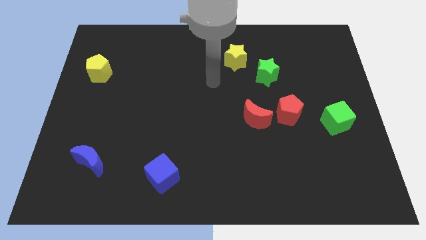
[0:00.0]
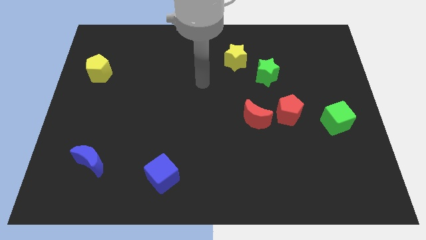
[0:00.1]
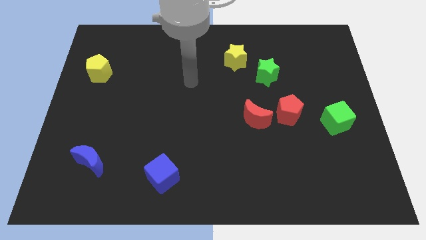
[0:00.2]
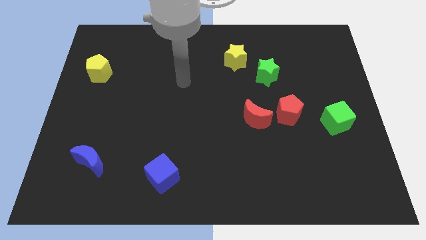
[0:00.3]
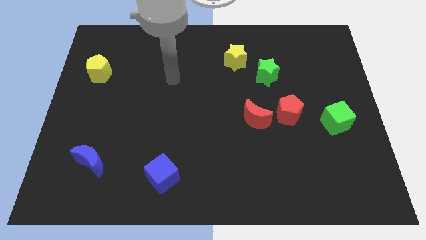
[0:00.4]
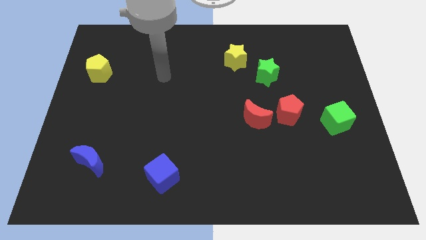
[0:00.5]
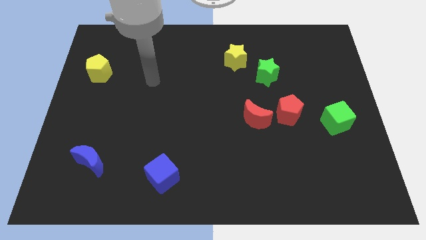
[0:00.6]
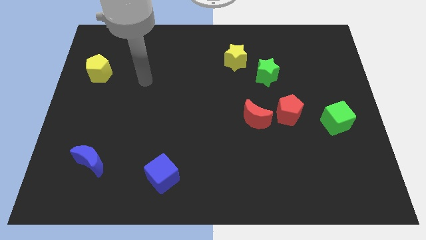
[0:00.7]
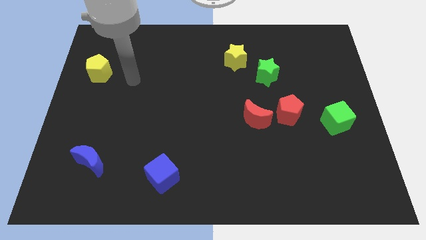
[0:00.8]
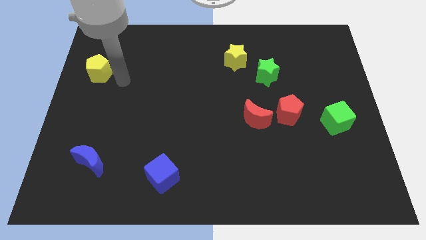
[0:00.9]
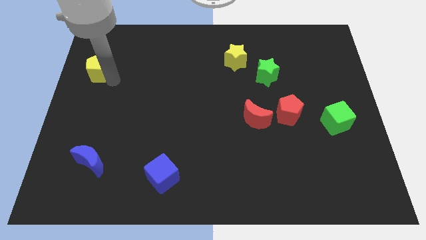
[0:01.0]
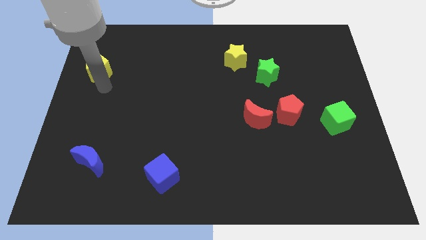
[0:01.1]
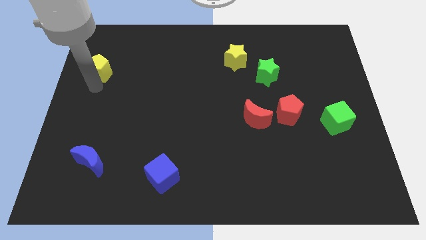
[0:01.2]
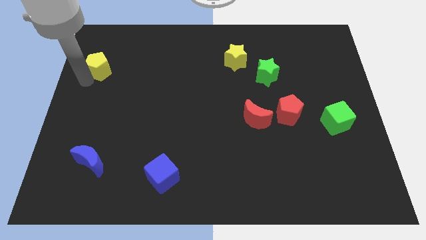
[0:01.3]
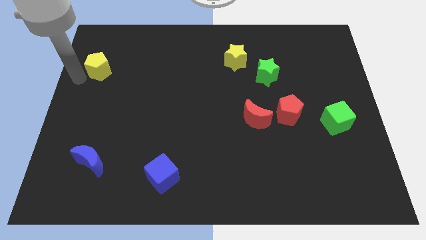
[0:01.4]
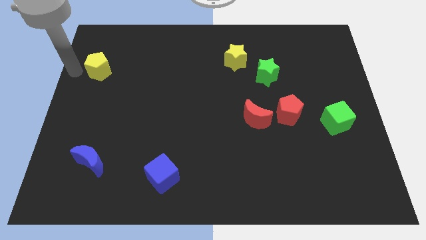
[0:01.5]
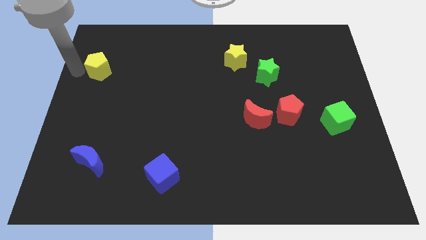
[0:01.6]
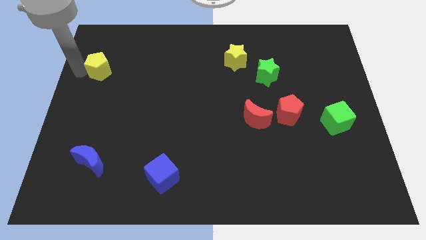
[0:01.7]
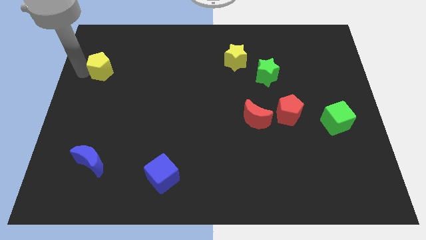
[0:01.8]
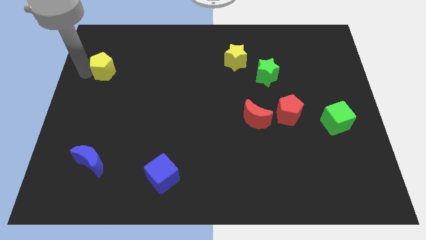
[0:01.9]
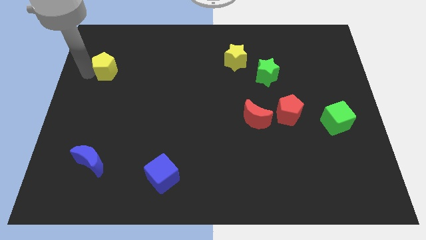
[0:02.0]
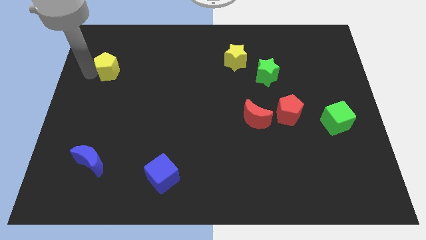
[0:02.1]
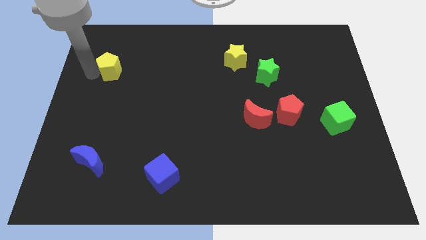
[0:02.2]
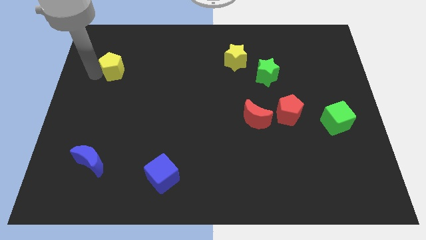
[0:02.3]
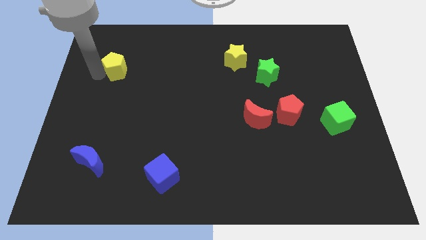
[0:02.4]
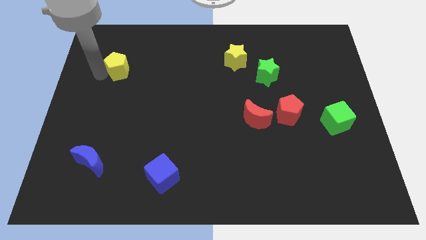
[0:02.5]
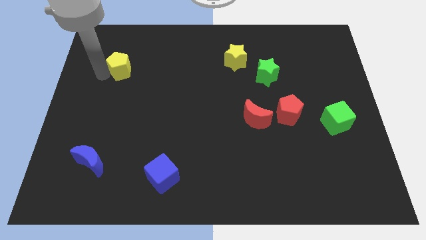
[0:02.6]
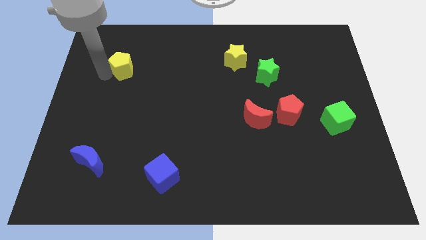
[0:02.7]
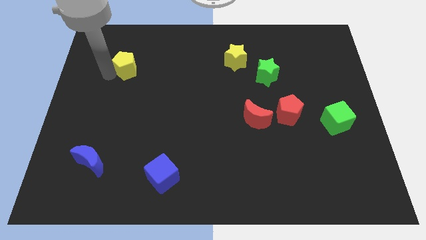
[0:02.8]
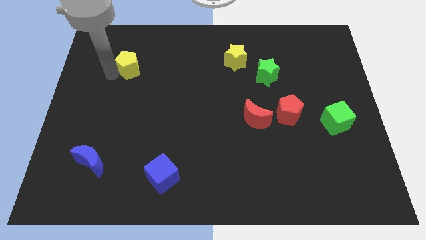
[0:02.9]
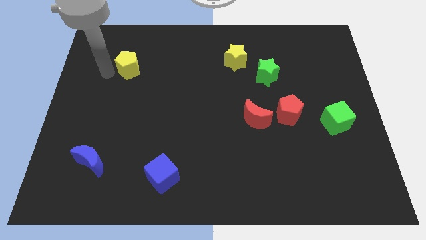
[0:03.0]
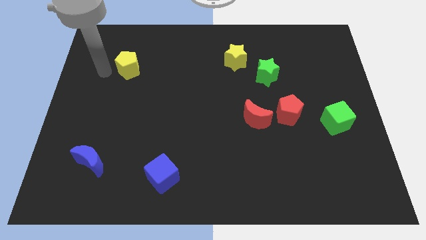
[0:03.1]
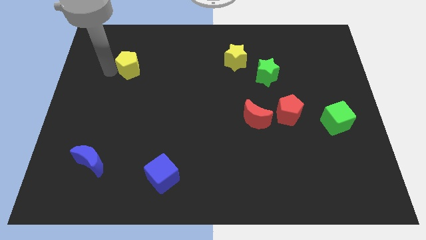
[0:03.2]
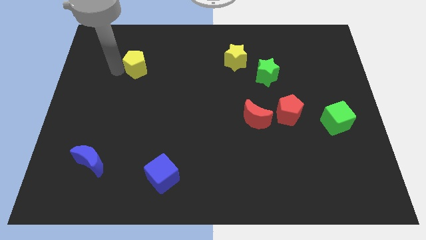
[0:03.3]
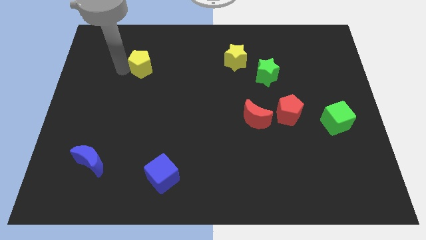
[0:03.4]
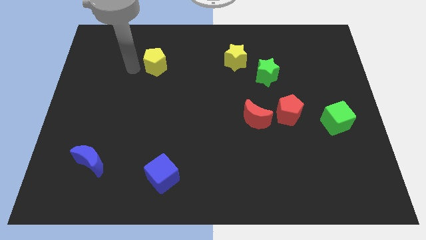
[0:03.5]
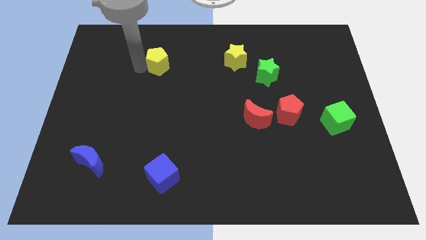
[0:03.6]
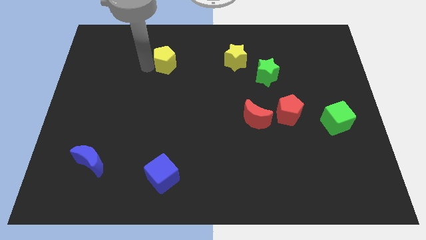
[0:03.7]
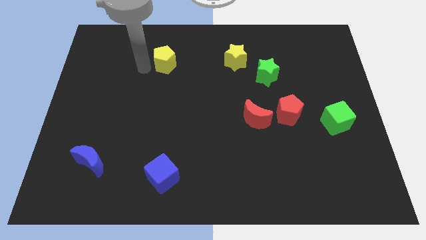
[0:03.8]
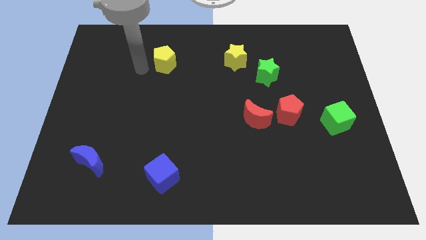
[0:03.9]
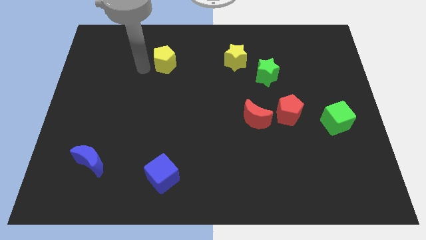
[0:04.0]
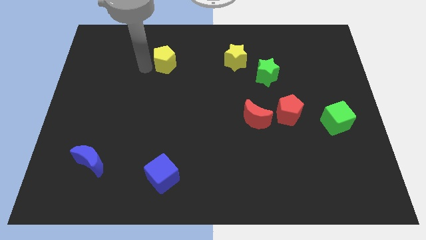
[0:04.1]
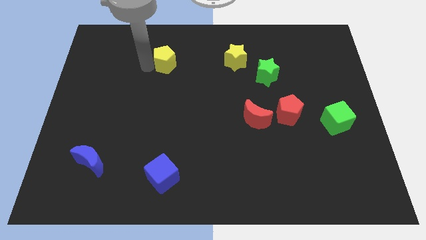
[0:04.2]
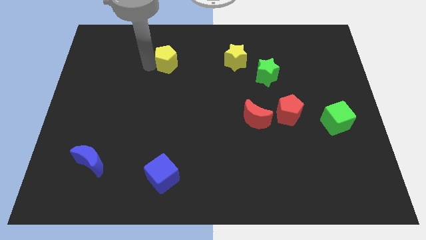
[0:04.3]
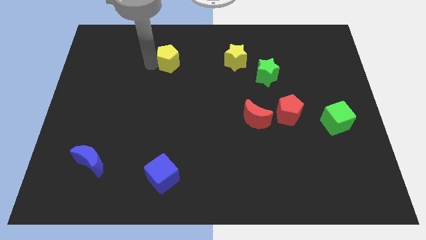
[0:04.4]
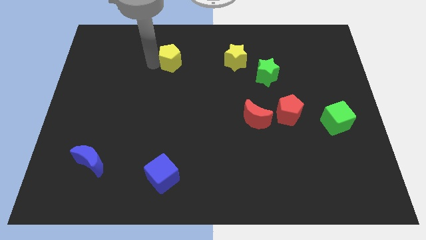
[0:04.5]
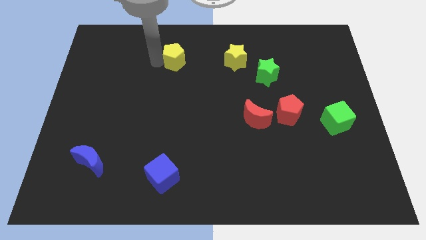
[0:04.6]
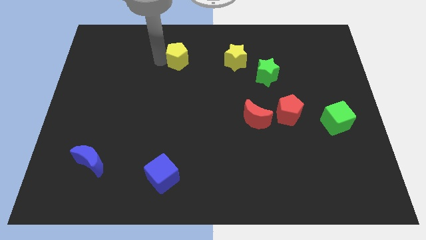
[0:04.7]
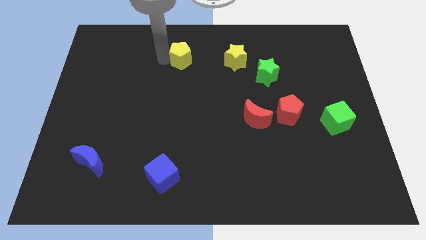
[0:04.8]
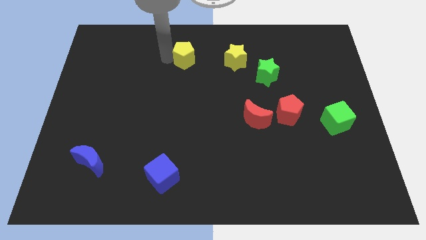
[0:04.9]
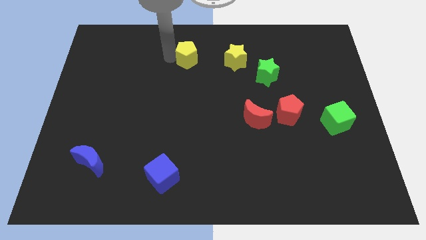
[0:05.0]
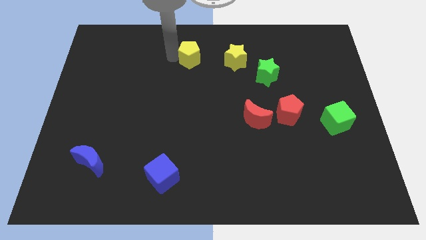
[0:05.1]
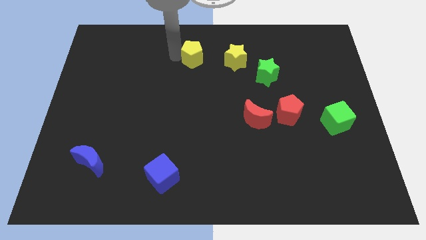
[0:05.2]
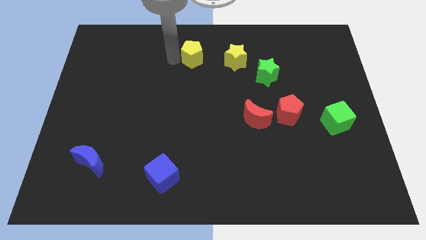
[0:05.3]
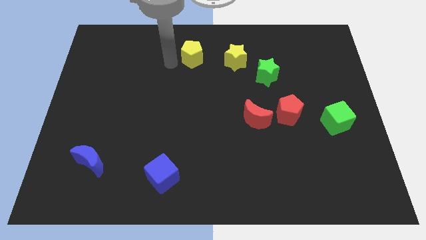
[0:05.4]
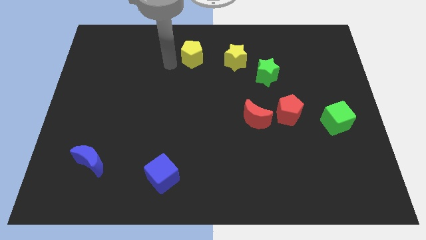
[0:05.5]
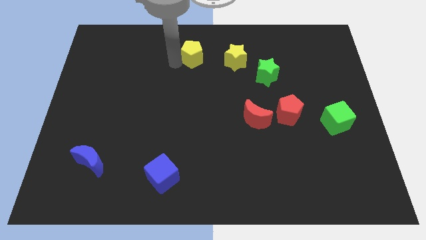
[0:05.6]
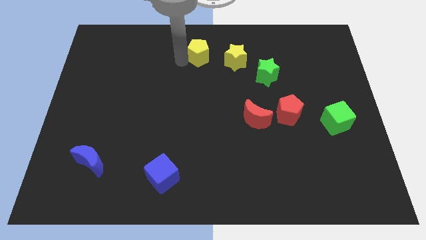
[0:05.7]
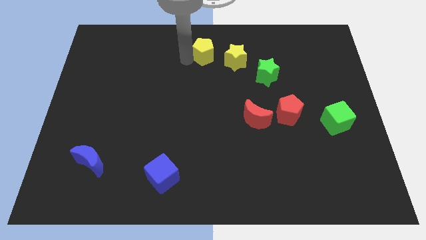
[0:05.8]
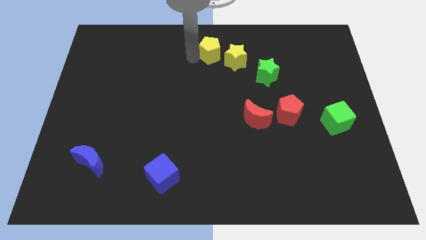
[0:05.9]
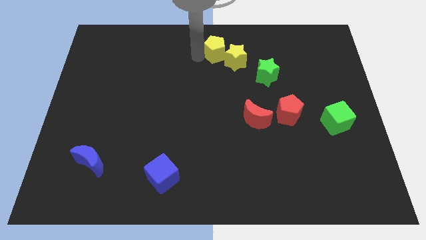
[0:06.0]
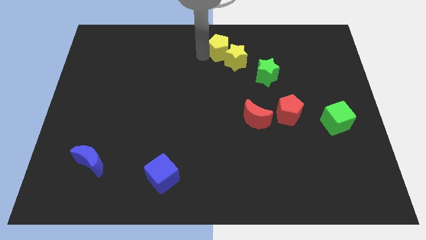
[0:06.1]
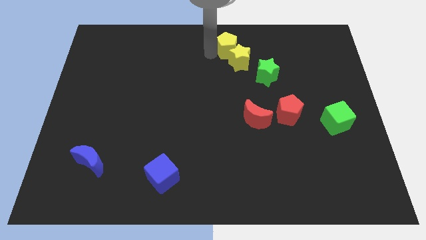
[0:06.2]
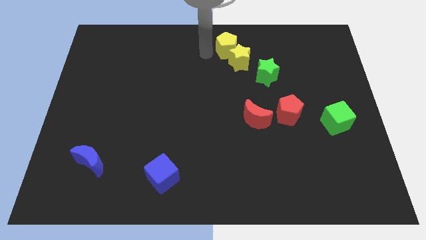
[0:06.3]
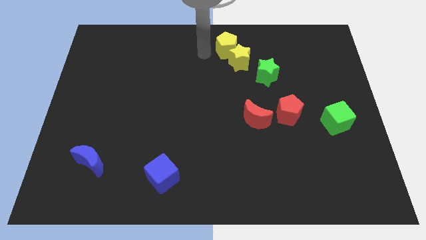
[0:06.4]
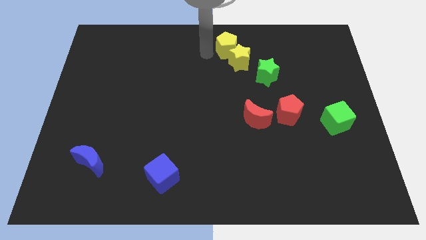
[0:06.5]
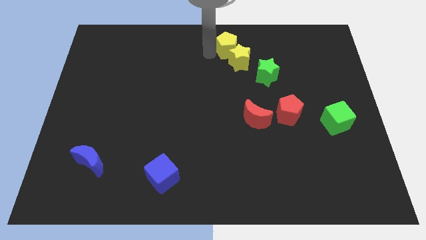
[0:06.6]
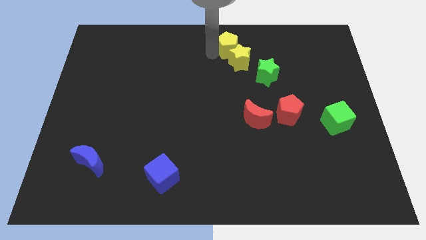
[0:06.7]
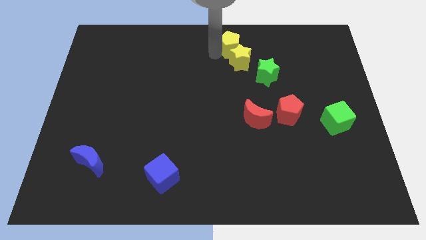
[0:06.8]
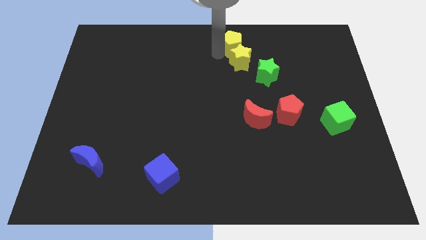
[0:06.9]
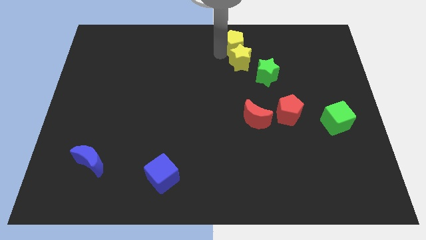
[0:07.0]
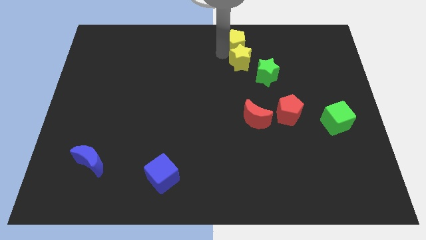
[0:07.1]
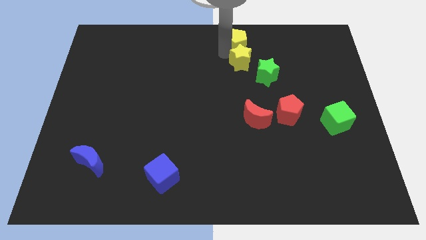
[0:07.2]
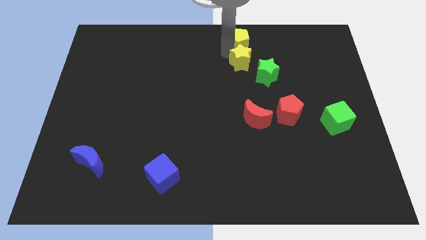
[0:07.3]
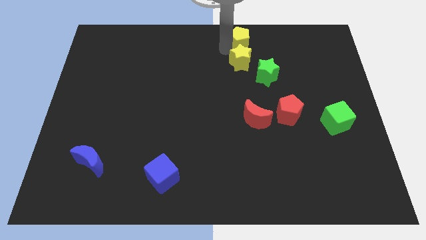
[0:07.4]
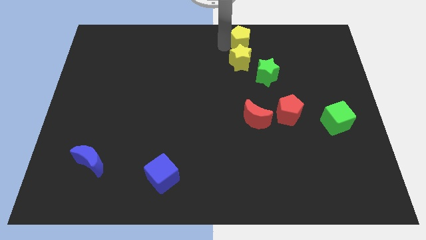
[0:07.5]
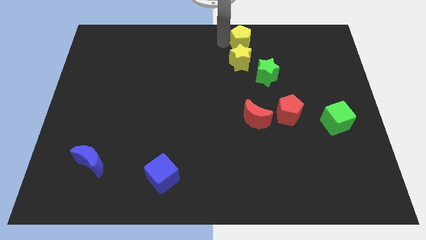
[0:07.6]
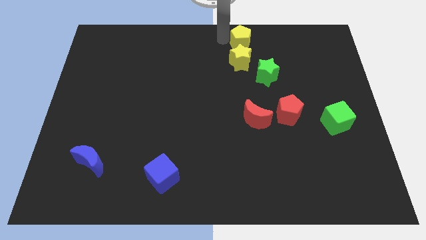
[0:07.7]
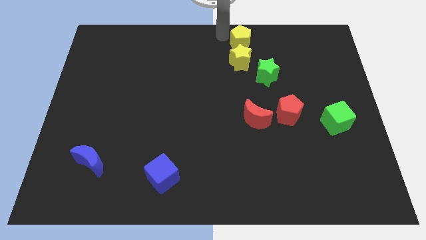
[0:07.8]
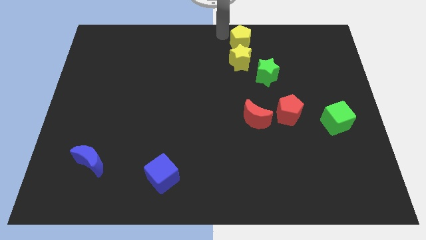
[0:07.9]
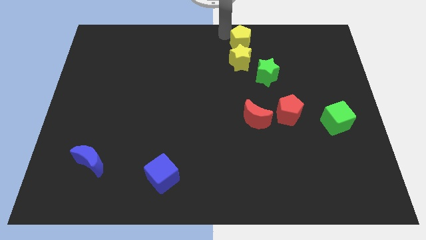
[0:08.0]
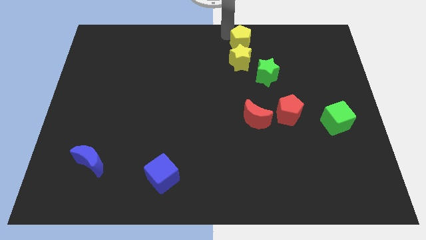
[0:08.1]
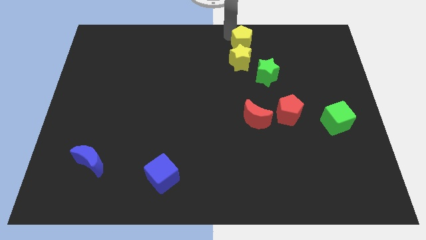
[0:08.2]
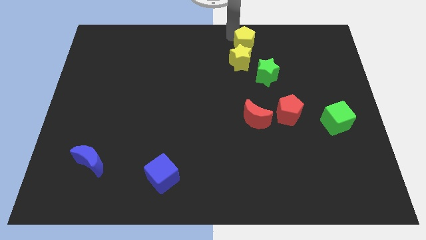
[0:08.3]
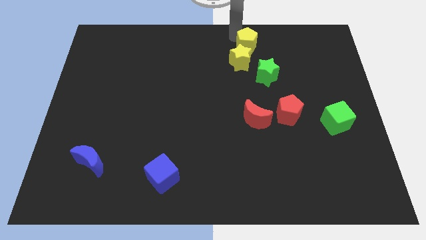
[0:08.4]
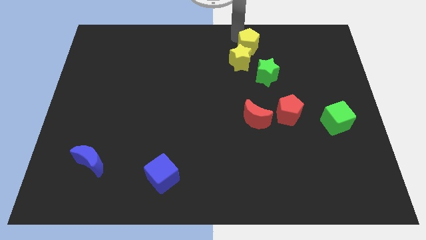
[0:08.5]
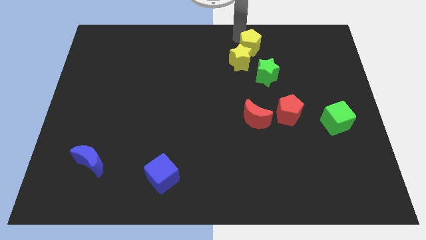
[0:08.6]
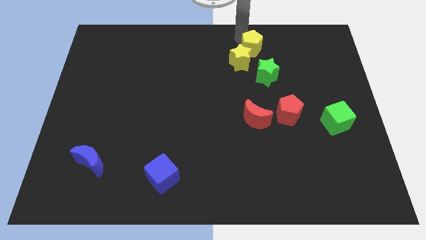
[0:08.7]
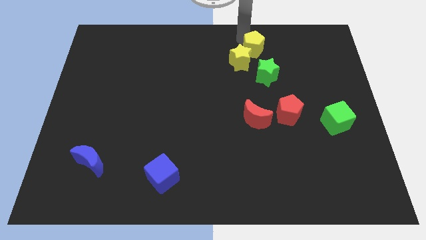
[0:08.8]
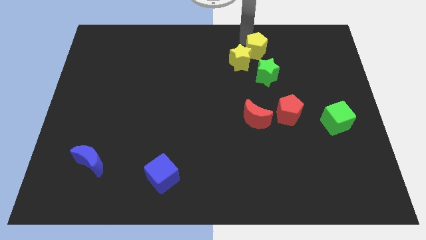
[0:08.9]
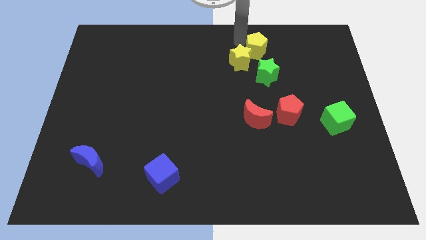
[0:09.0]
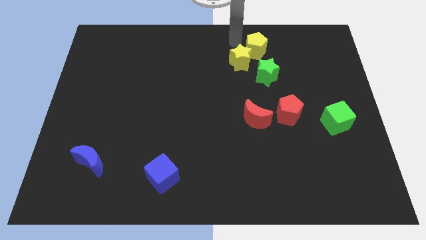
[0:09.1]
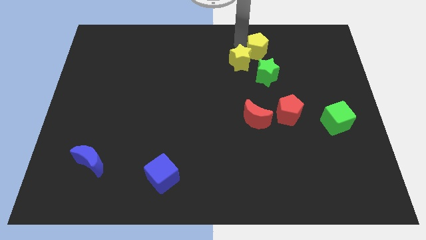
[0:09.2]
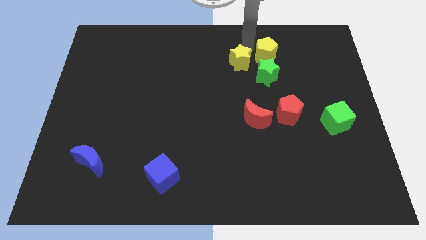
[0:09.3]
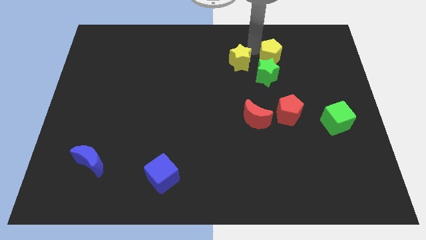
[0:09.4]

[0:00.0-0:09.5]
put the yellow pentagon to the top right side of the green star
